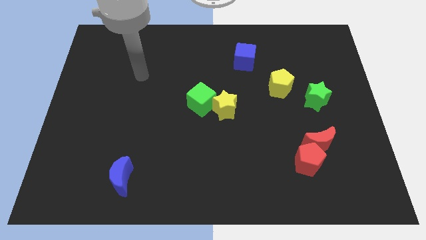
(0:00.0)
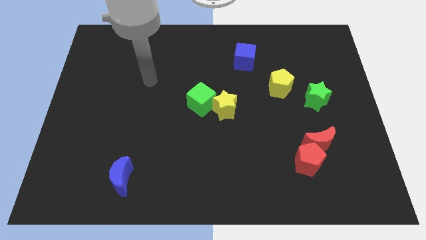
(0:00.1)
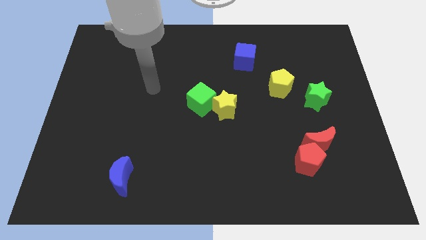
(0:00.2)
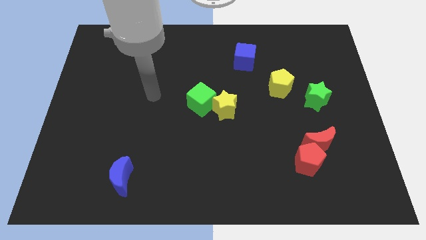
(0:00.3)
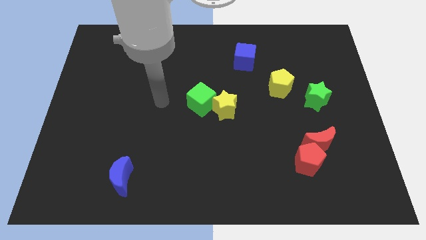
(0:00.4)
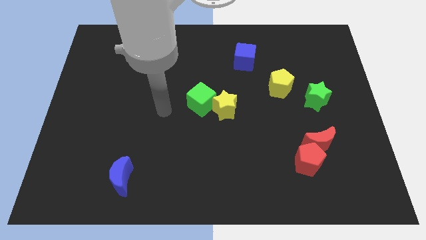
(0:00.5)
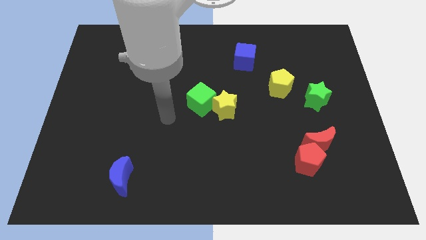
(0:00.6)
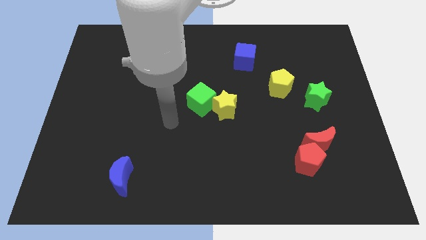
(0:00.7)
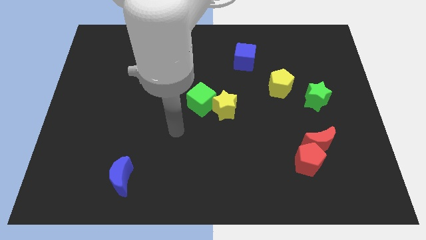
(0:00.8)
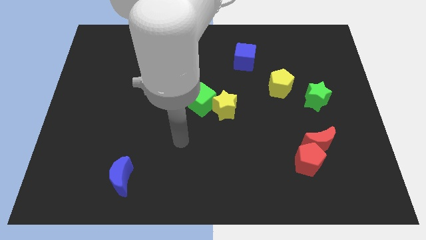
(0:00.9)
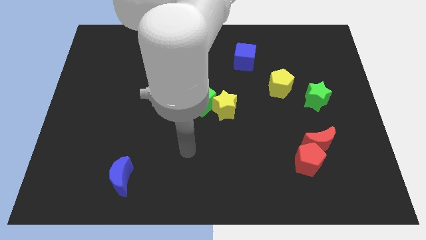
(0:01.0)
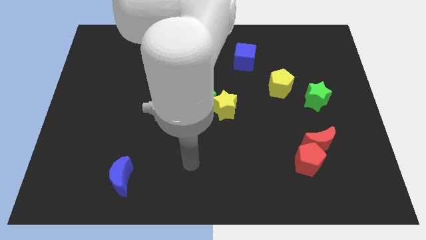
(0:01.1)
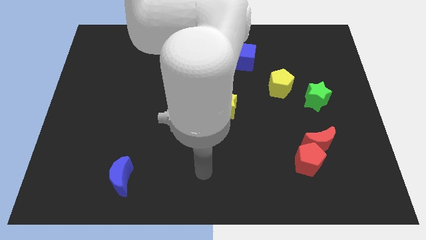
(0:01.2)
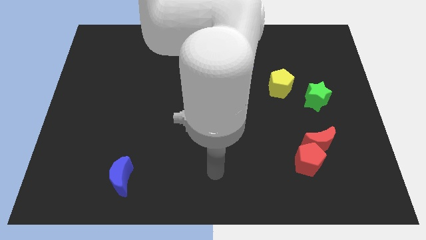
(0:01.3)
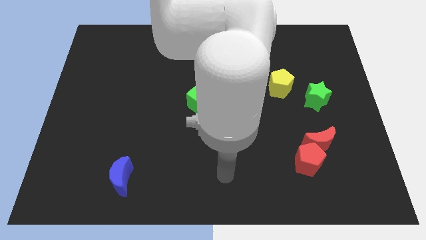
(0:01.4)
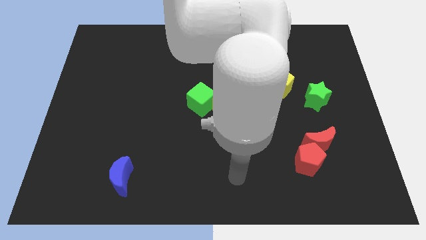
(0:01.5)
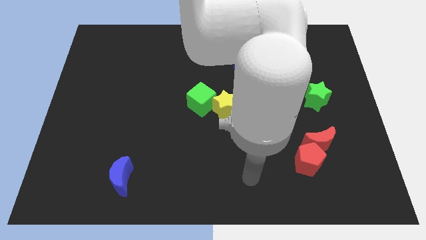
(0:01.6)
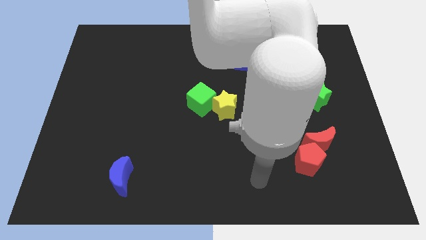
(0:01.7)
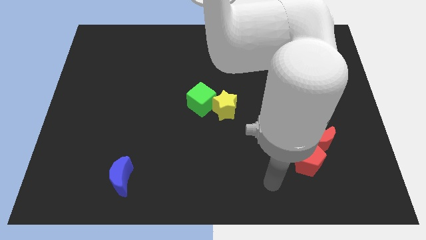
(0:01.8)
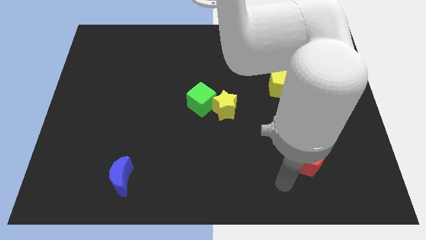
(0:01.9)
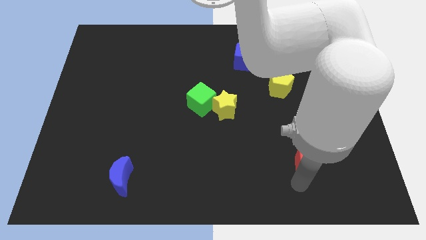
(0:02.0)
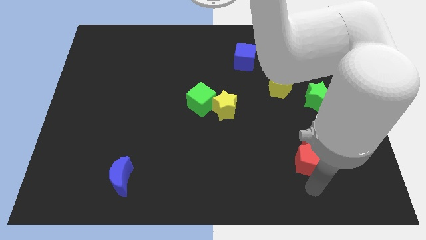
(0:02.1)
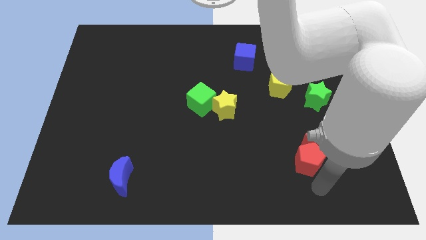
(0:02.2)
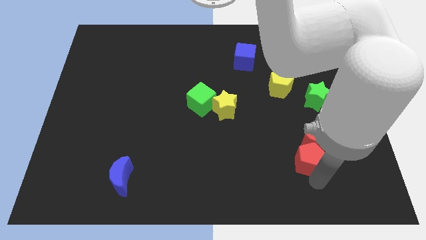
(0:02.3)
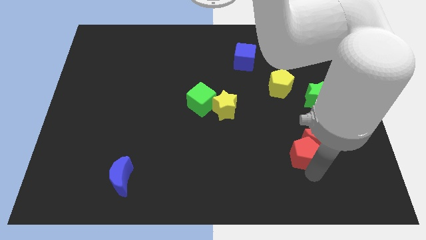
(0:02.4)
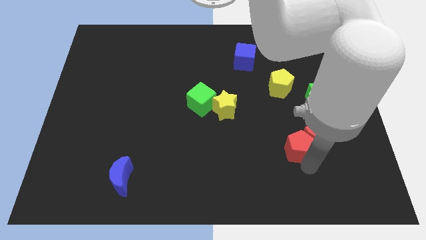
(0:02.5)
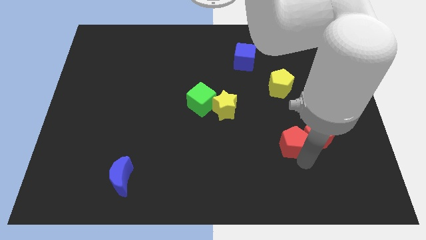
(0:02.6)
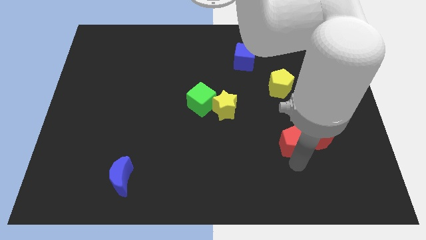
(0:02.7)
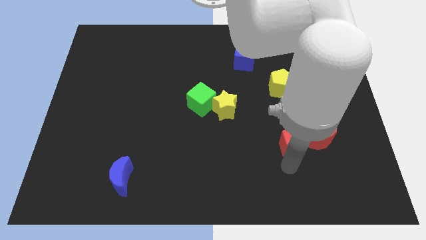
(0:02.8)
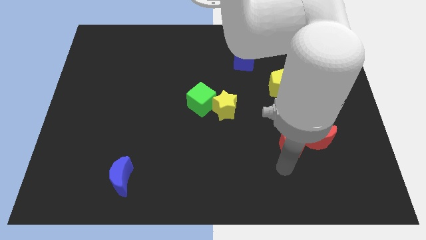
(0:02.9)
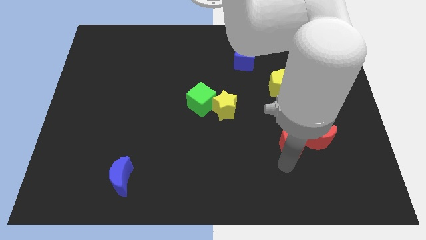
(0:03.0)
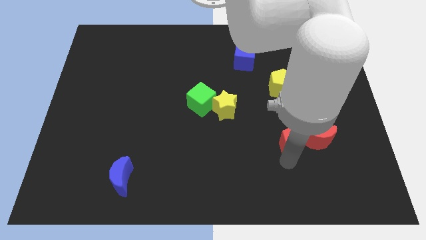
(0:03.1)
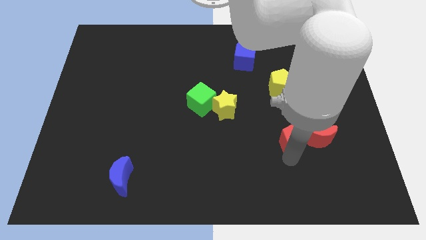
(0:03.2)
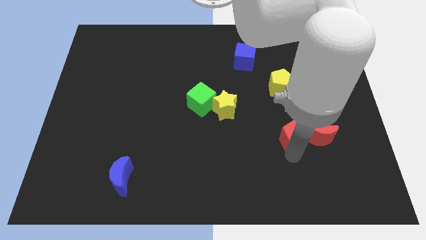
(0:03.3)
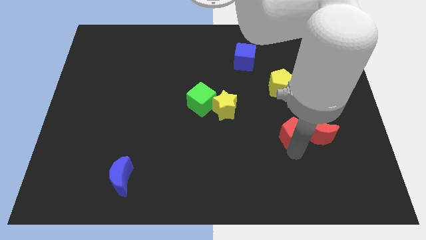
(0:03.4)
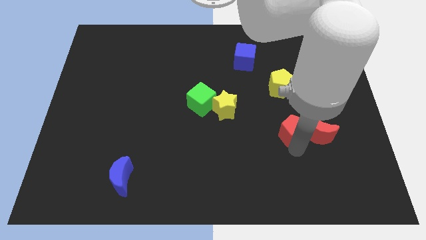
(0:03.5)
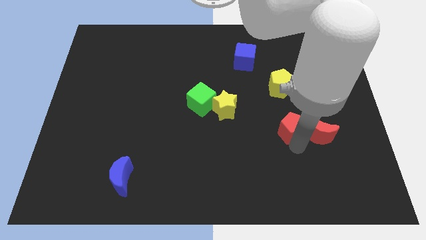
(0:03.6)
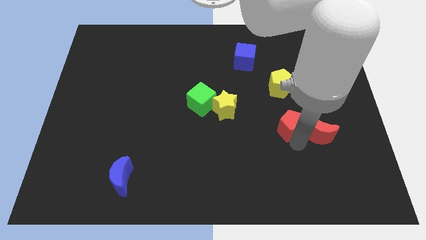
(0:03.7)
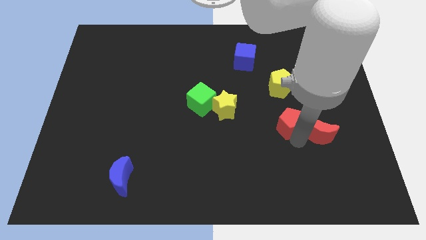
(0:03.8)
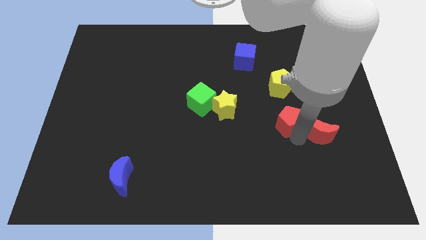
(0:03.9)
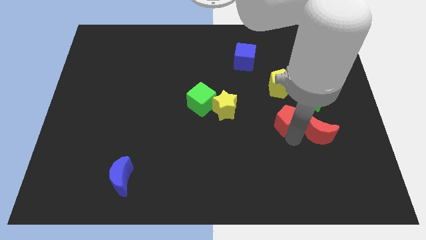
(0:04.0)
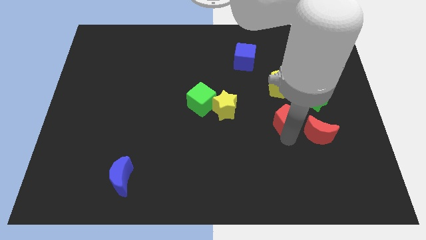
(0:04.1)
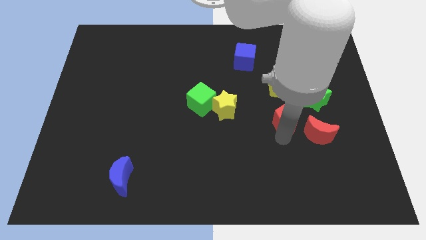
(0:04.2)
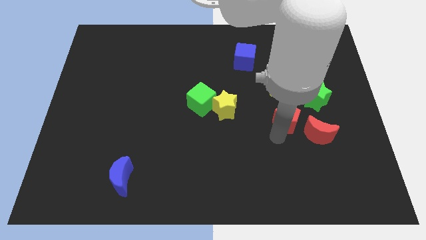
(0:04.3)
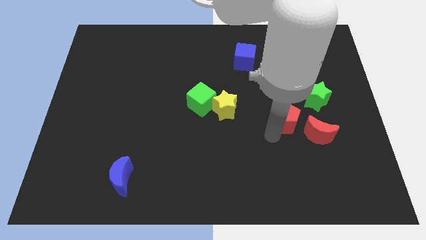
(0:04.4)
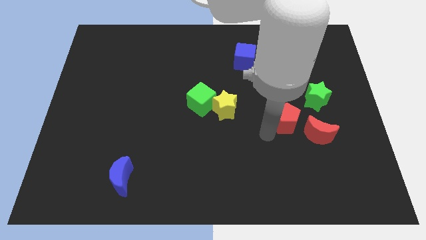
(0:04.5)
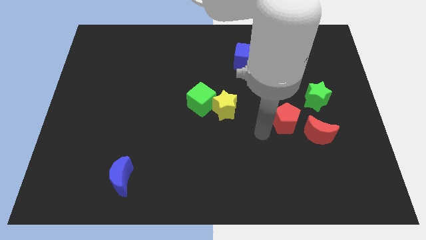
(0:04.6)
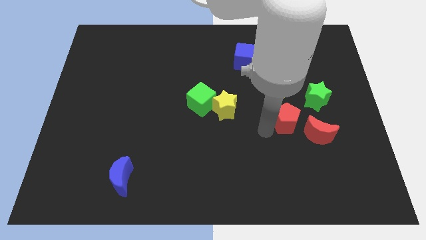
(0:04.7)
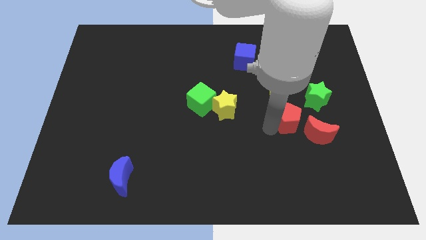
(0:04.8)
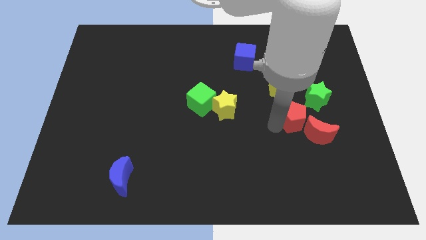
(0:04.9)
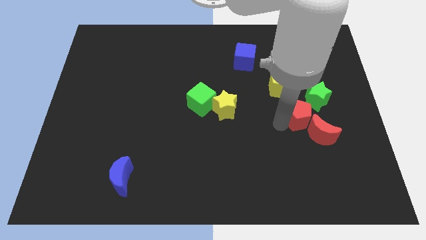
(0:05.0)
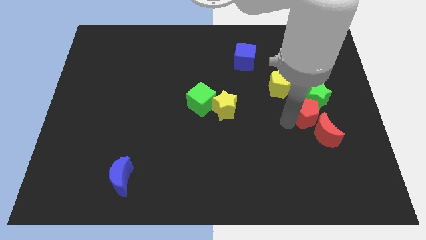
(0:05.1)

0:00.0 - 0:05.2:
put the red pentagon close to the green star

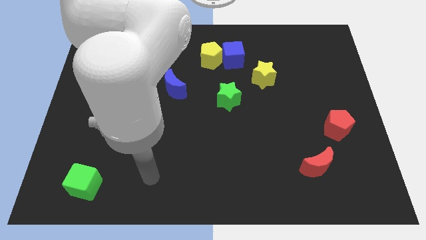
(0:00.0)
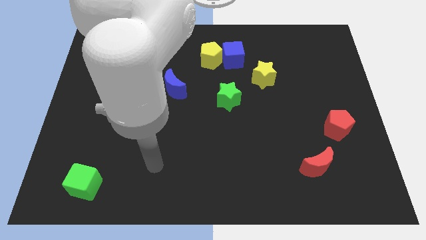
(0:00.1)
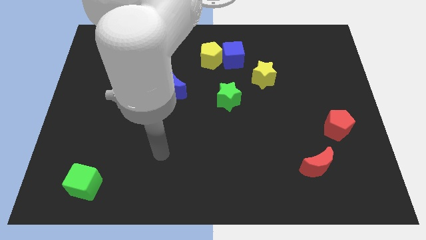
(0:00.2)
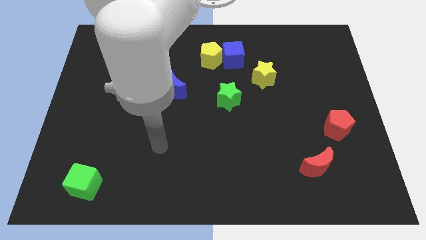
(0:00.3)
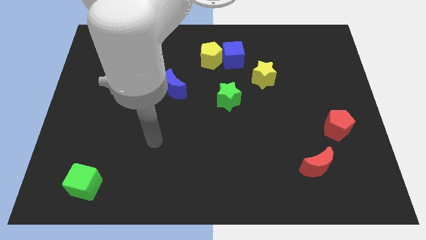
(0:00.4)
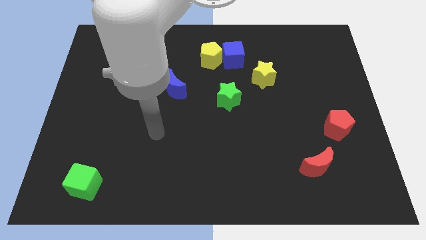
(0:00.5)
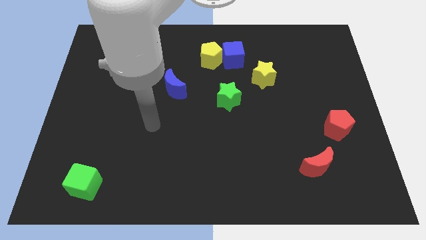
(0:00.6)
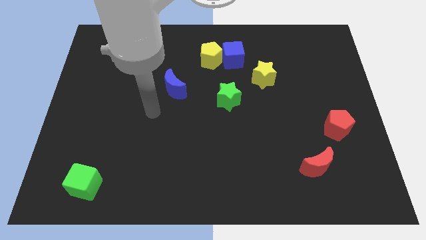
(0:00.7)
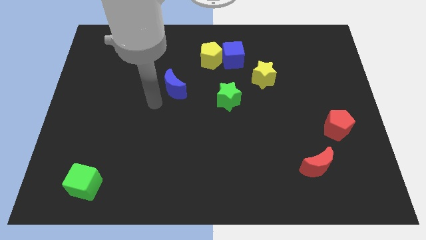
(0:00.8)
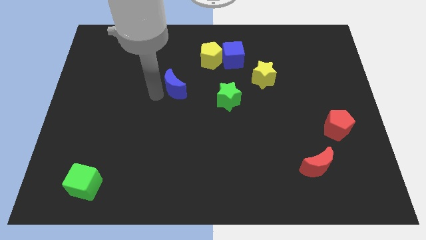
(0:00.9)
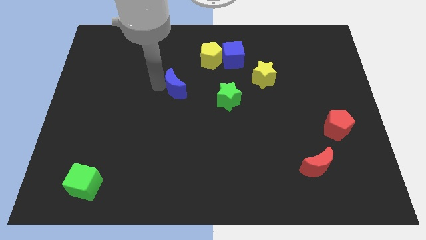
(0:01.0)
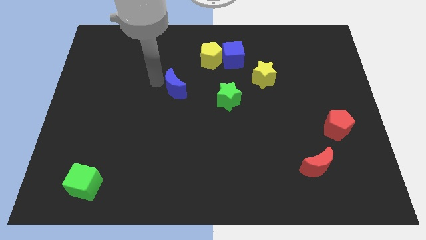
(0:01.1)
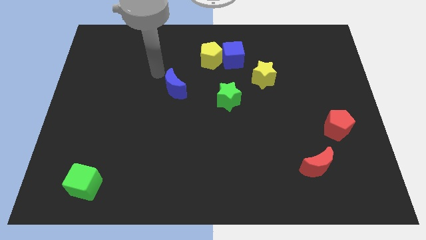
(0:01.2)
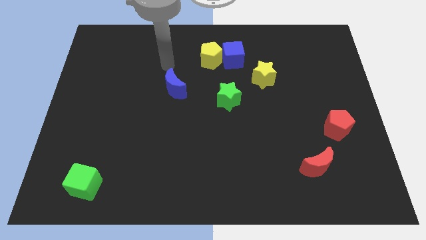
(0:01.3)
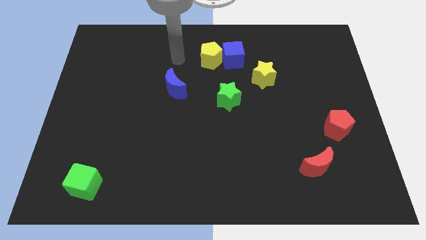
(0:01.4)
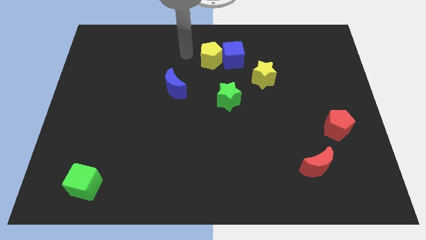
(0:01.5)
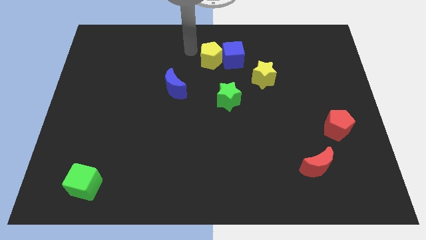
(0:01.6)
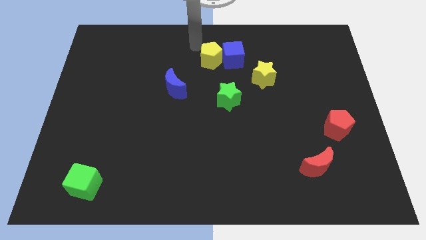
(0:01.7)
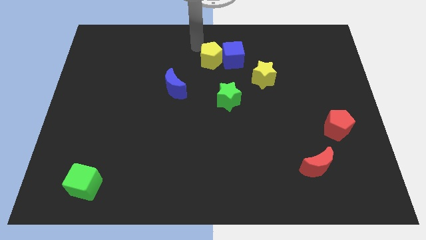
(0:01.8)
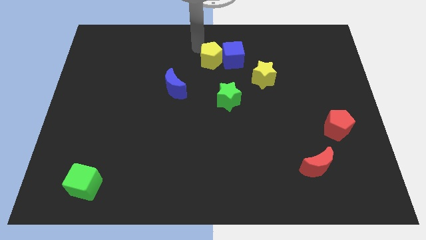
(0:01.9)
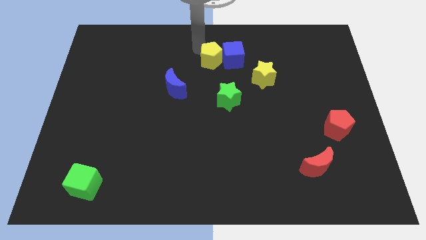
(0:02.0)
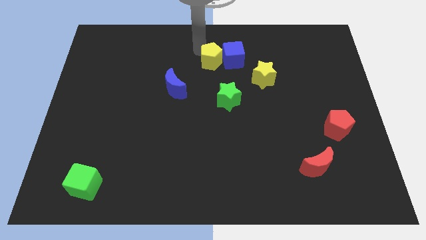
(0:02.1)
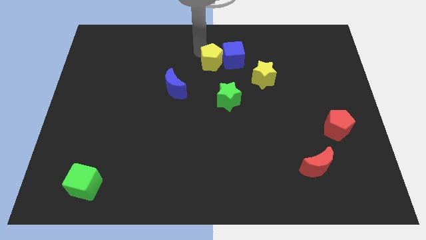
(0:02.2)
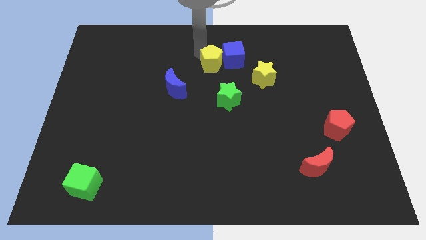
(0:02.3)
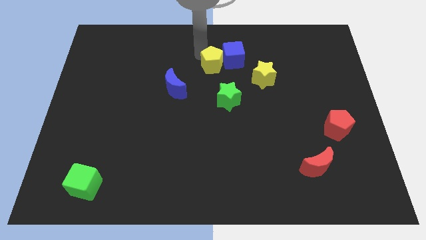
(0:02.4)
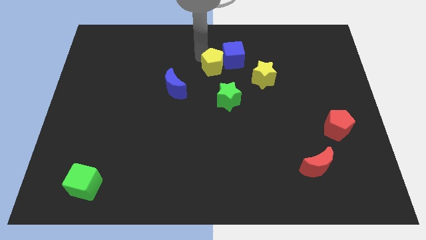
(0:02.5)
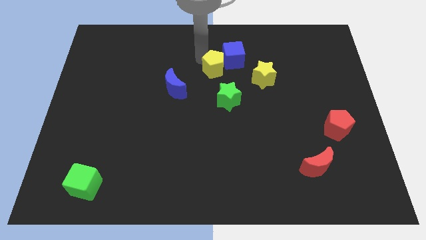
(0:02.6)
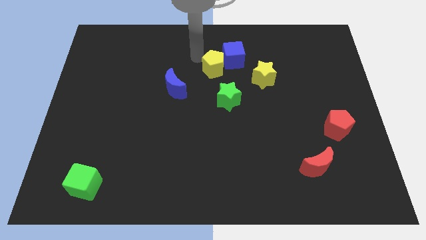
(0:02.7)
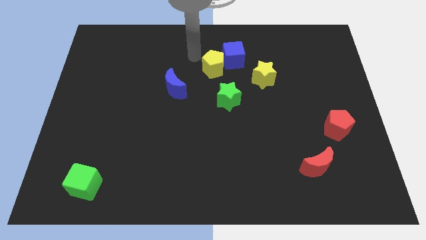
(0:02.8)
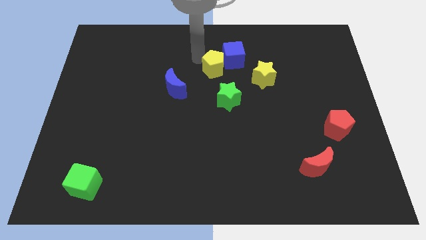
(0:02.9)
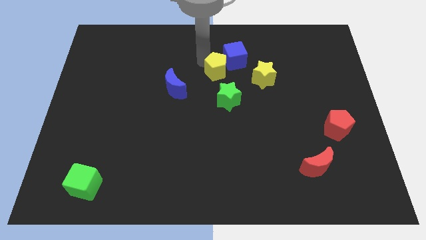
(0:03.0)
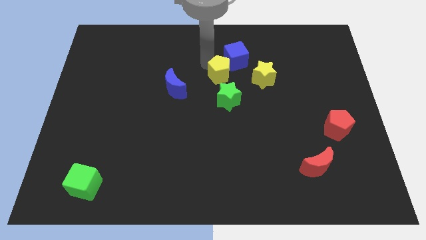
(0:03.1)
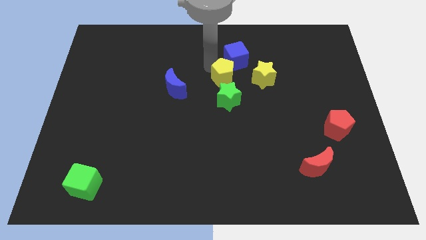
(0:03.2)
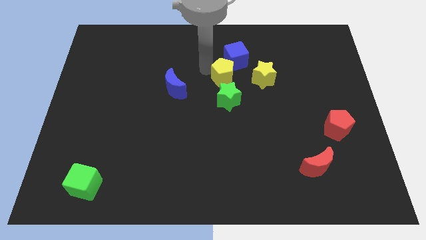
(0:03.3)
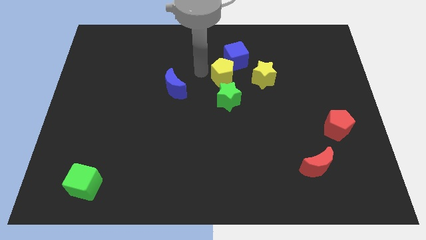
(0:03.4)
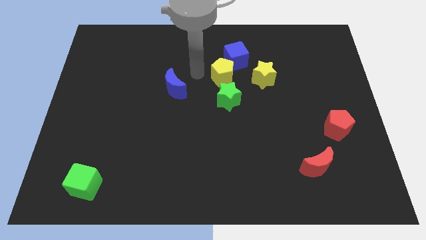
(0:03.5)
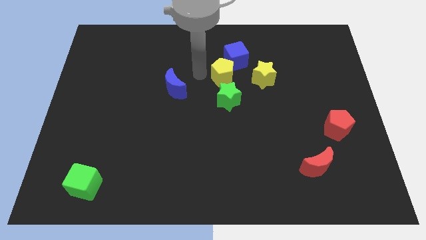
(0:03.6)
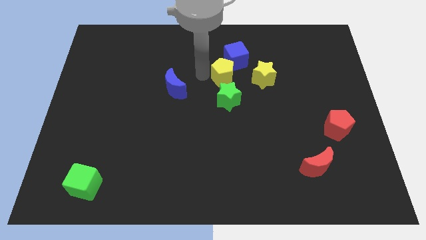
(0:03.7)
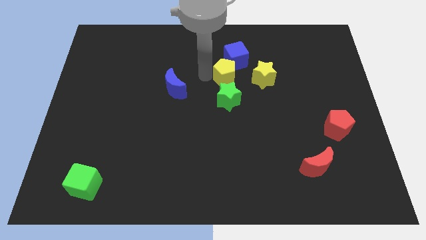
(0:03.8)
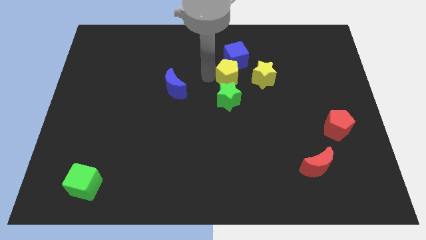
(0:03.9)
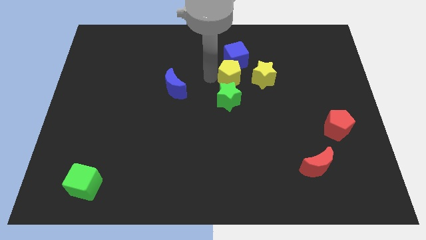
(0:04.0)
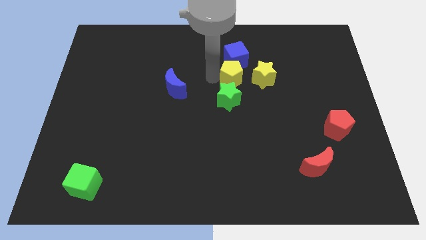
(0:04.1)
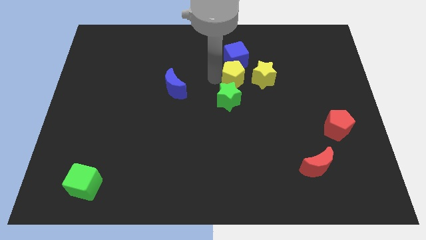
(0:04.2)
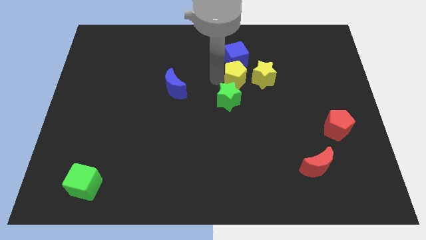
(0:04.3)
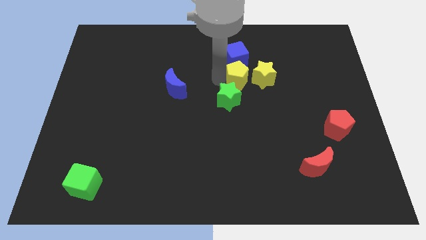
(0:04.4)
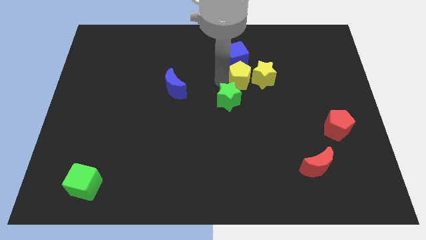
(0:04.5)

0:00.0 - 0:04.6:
slide the yellow pentagon next to the yellow star
